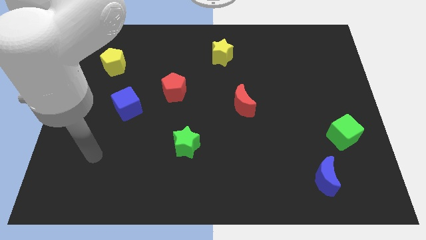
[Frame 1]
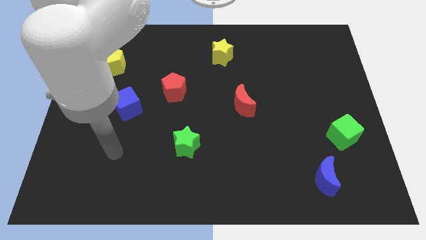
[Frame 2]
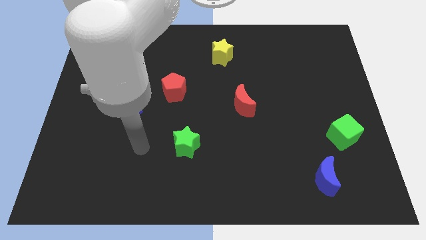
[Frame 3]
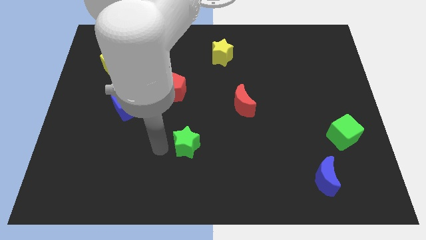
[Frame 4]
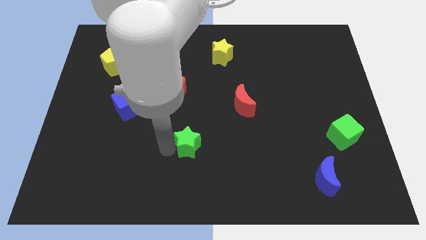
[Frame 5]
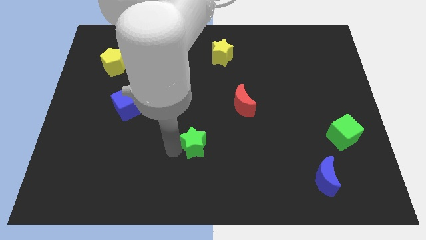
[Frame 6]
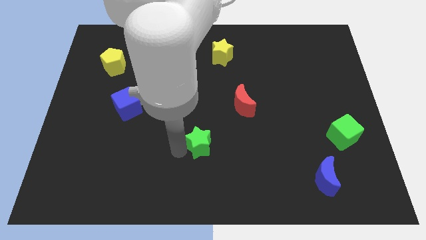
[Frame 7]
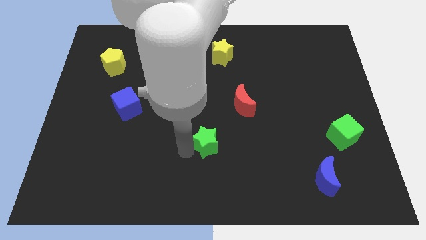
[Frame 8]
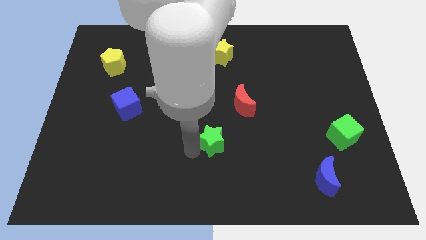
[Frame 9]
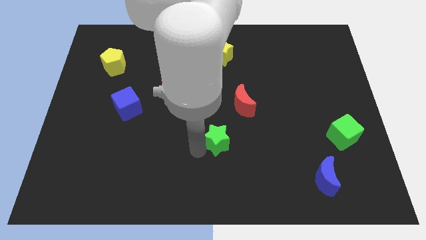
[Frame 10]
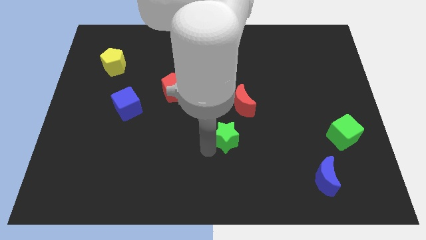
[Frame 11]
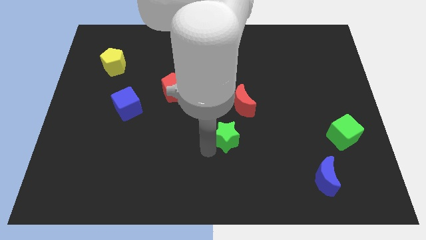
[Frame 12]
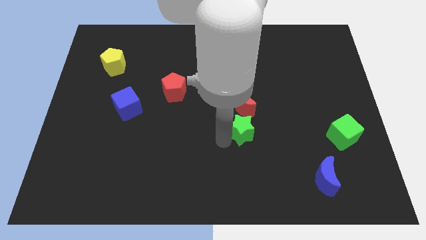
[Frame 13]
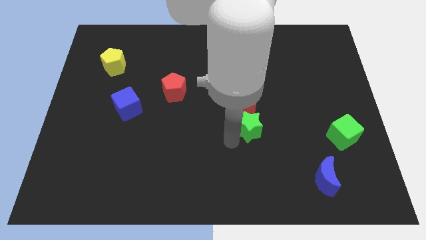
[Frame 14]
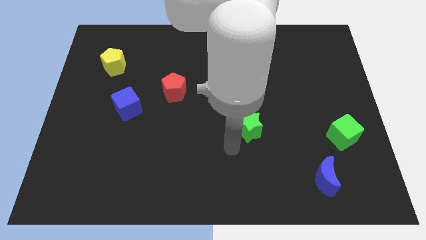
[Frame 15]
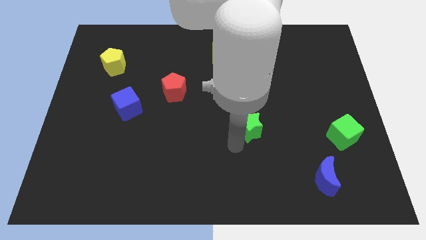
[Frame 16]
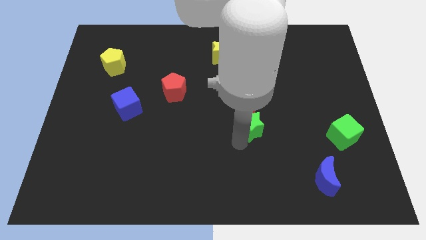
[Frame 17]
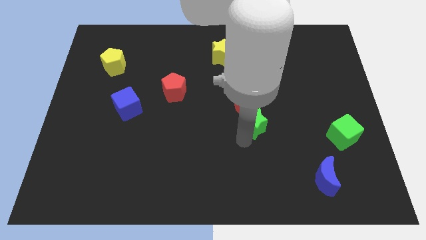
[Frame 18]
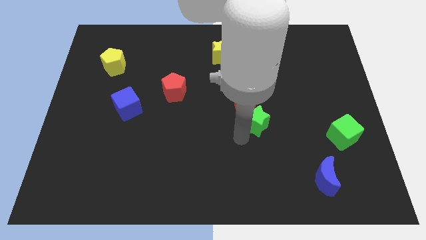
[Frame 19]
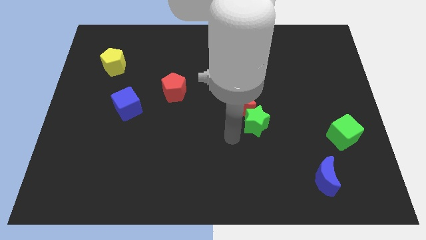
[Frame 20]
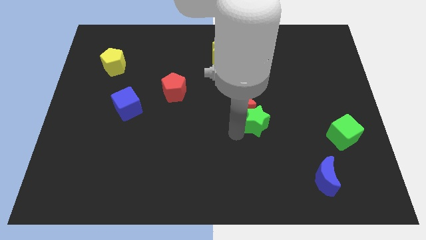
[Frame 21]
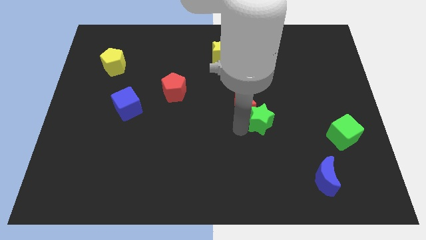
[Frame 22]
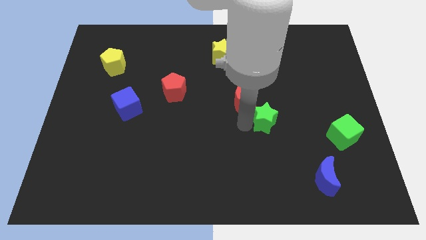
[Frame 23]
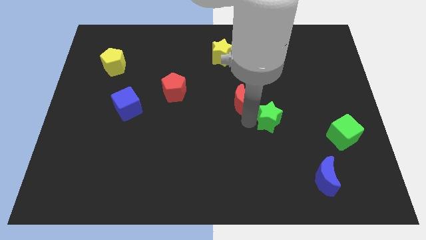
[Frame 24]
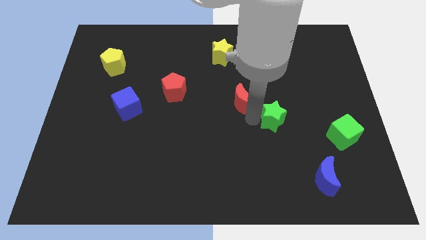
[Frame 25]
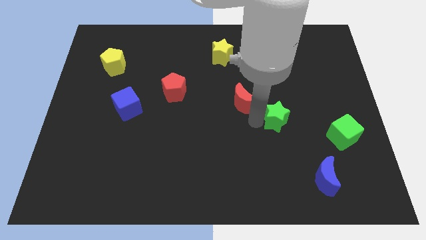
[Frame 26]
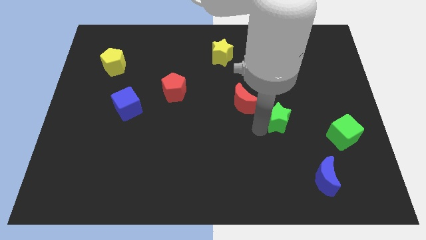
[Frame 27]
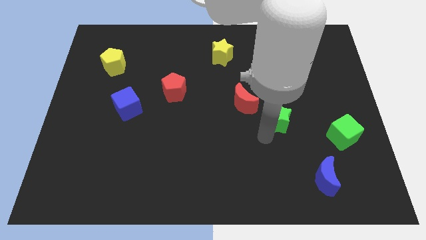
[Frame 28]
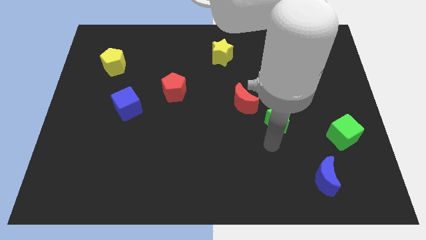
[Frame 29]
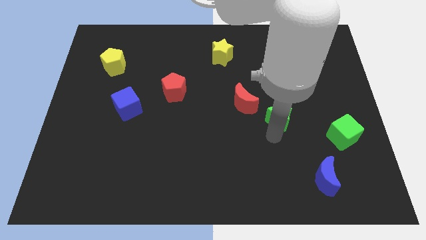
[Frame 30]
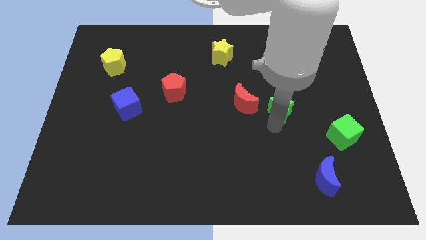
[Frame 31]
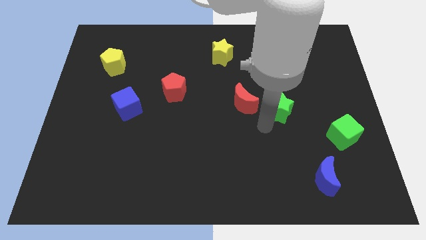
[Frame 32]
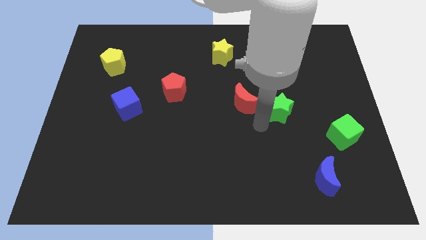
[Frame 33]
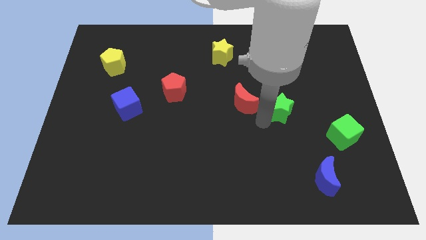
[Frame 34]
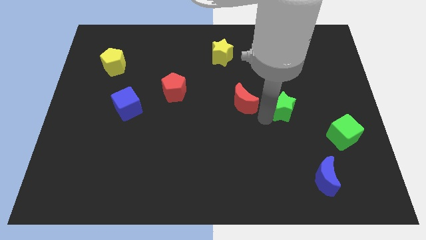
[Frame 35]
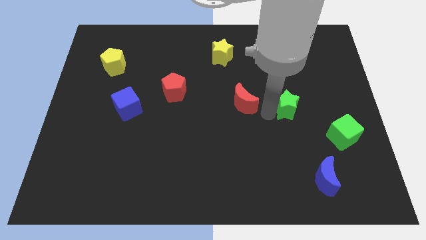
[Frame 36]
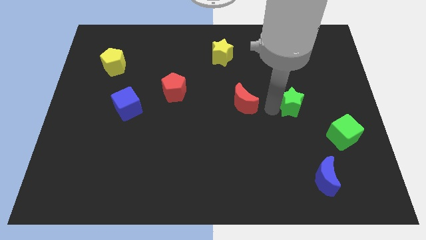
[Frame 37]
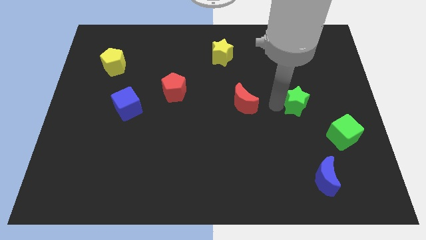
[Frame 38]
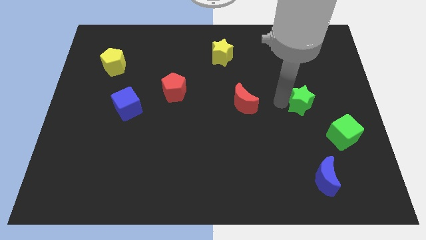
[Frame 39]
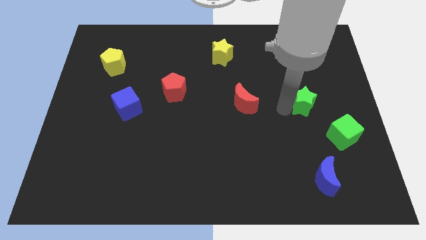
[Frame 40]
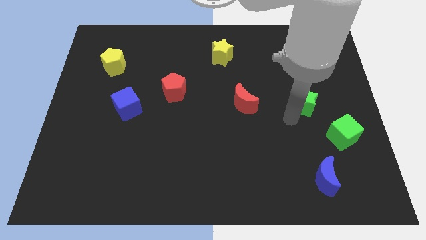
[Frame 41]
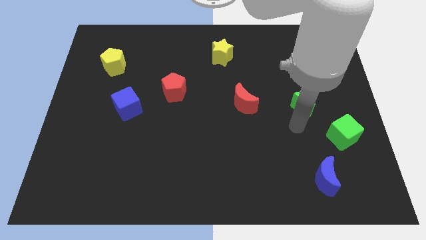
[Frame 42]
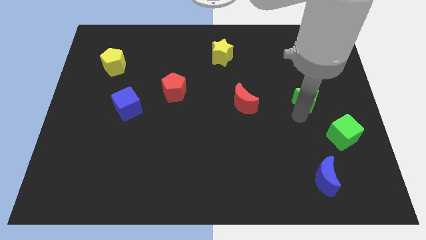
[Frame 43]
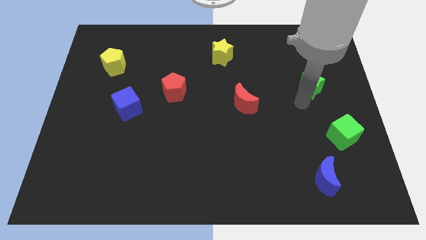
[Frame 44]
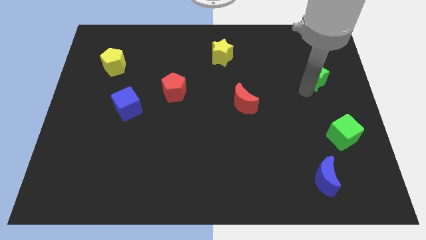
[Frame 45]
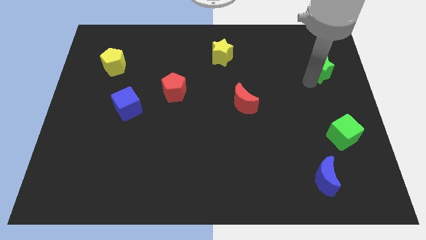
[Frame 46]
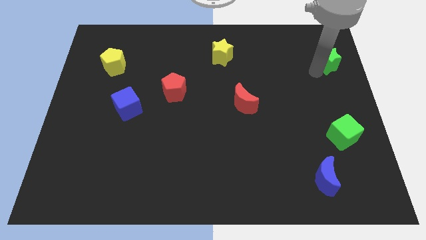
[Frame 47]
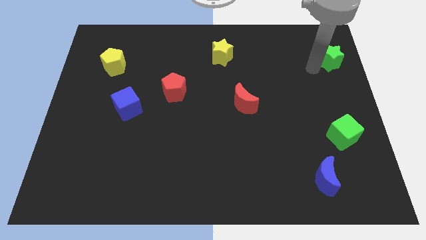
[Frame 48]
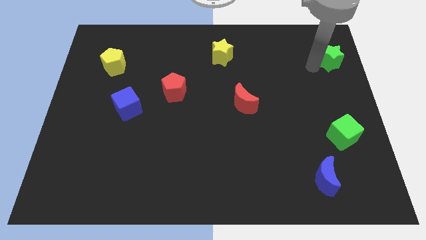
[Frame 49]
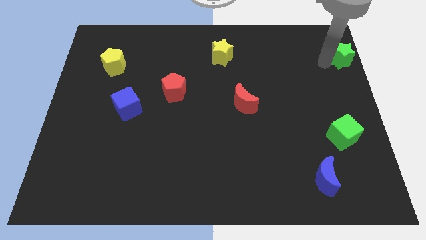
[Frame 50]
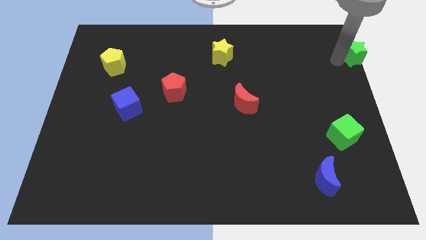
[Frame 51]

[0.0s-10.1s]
move the green star to the upper right corner

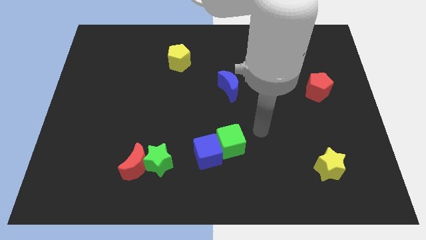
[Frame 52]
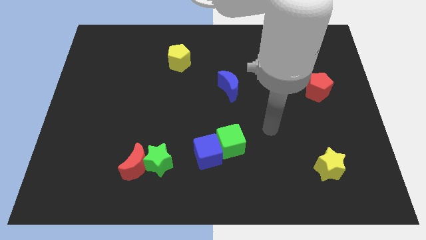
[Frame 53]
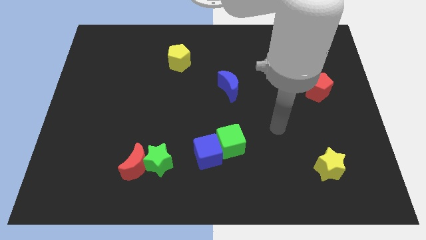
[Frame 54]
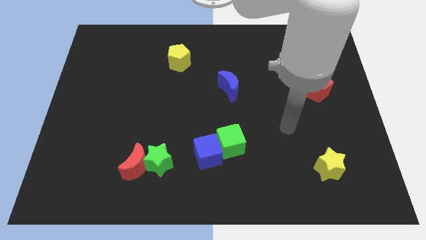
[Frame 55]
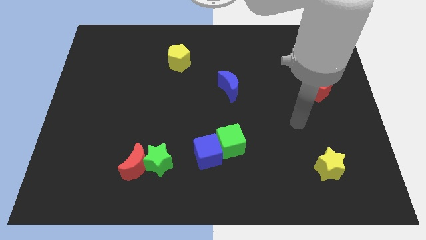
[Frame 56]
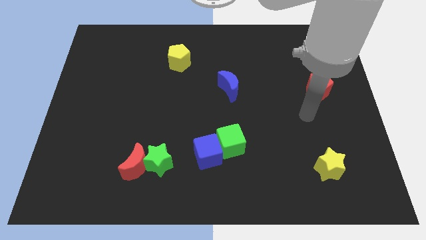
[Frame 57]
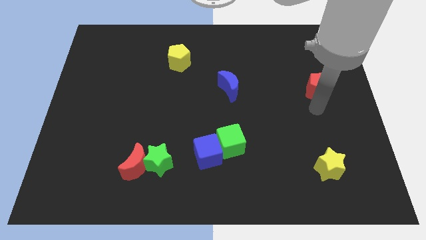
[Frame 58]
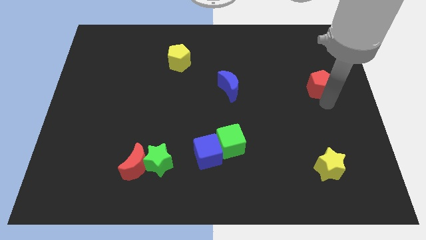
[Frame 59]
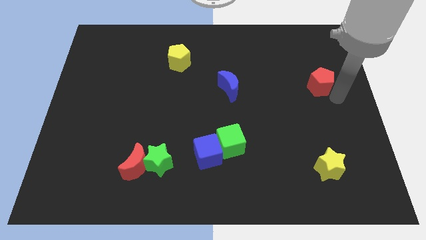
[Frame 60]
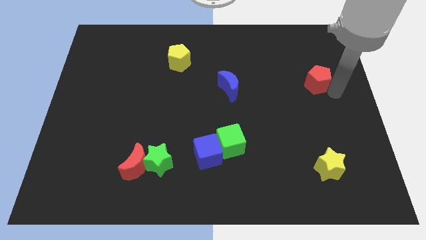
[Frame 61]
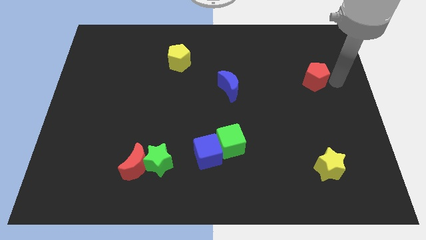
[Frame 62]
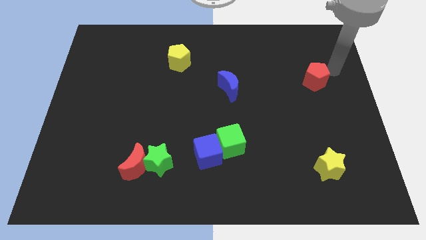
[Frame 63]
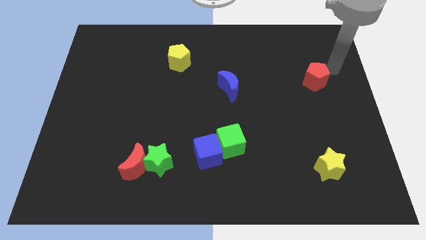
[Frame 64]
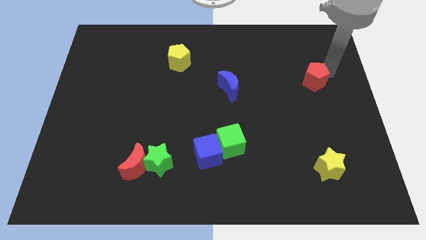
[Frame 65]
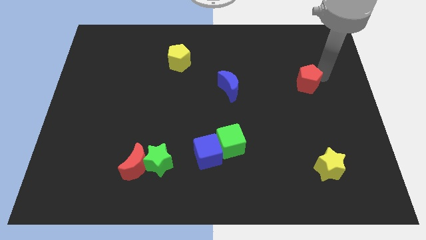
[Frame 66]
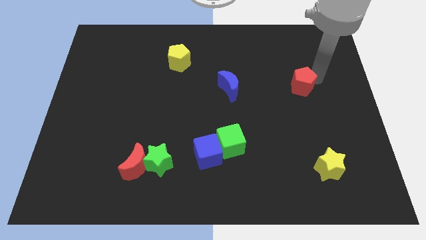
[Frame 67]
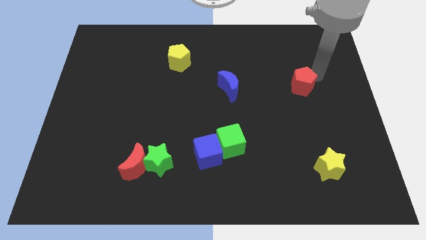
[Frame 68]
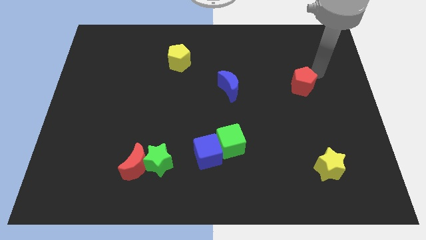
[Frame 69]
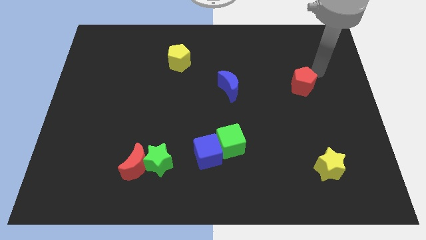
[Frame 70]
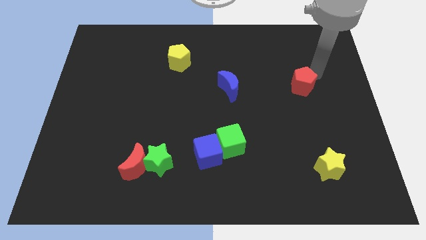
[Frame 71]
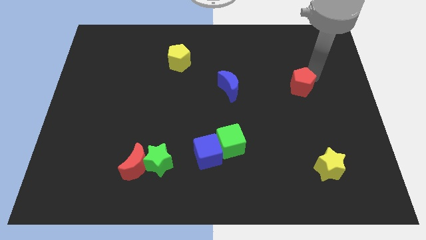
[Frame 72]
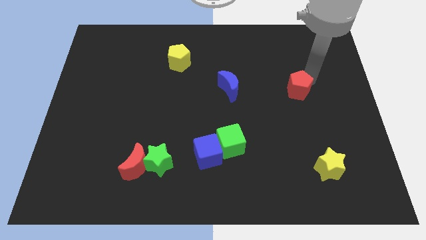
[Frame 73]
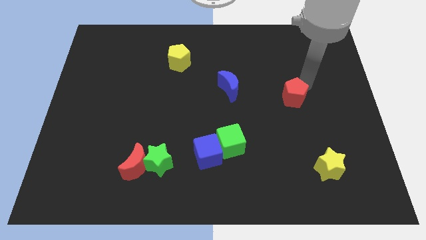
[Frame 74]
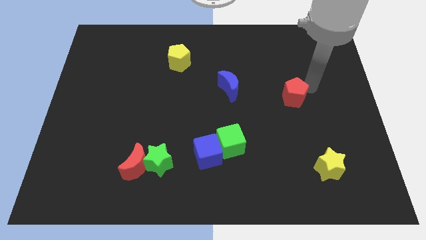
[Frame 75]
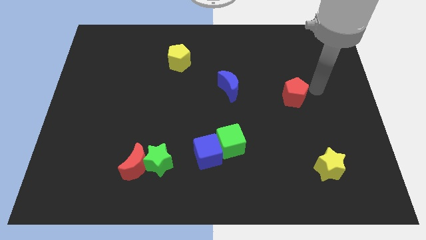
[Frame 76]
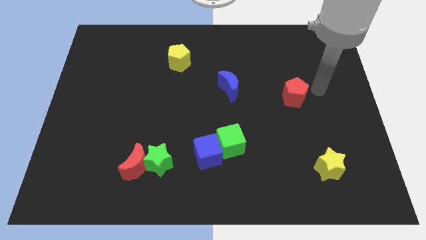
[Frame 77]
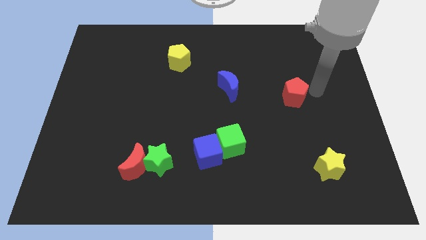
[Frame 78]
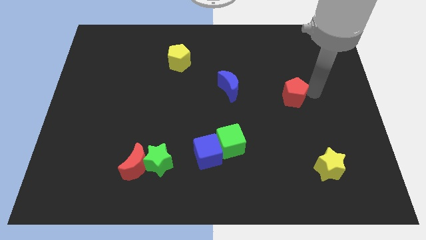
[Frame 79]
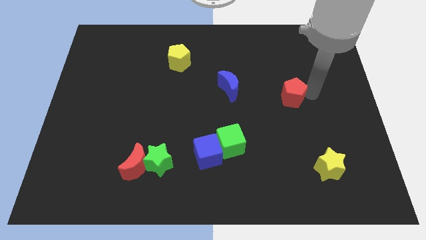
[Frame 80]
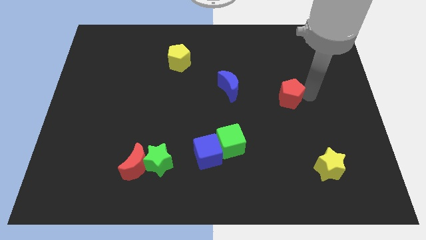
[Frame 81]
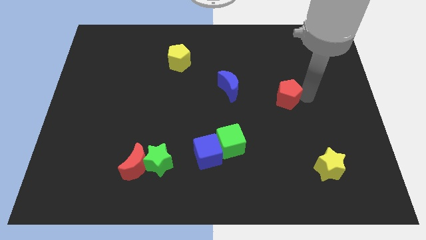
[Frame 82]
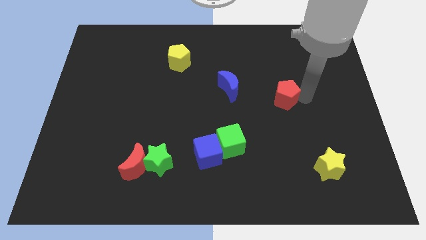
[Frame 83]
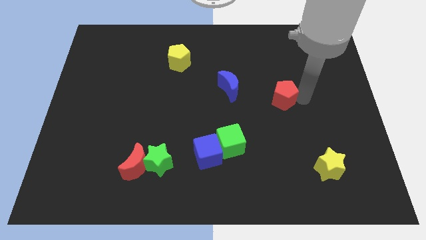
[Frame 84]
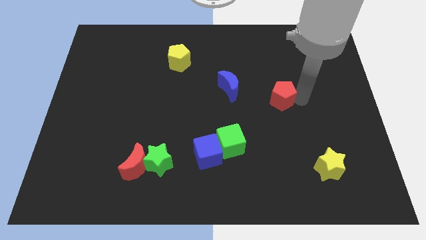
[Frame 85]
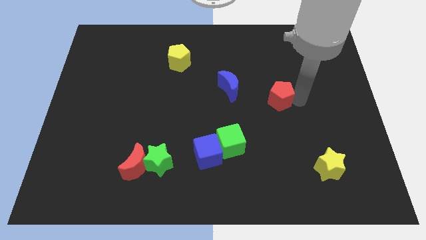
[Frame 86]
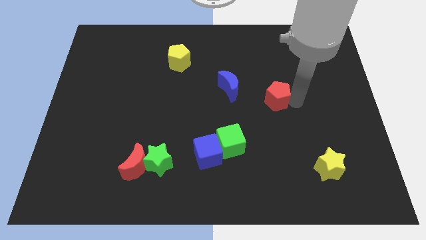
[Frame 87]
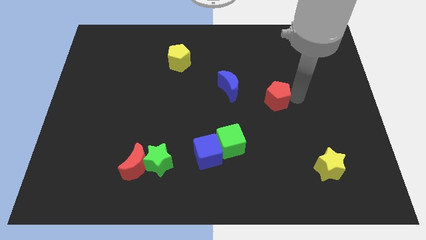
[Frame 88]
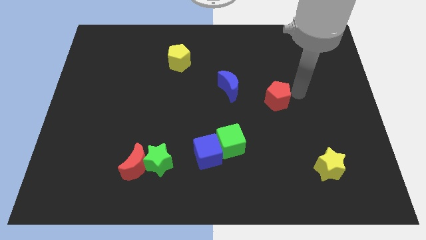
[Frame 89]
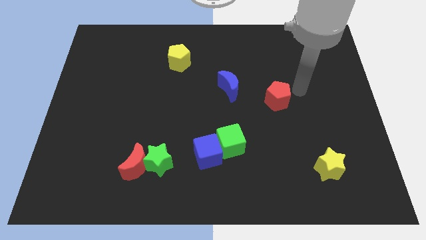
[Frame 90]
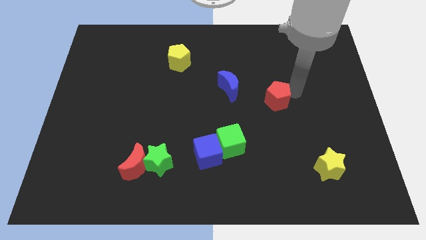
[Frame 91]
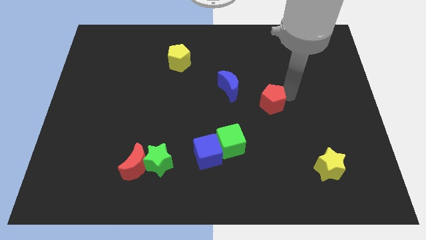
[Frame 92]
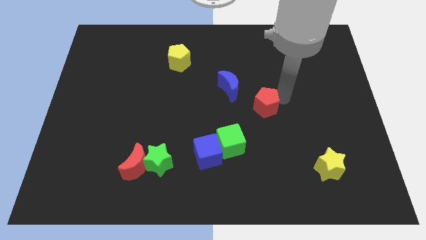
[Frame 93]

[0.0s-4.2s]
move the red pentagon to the center of the board
